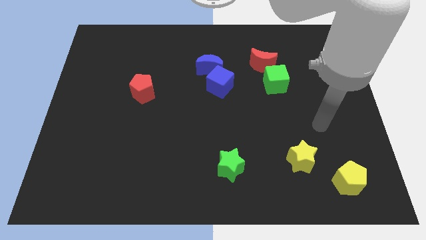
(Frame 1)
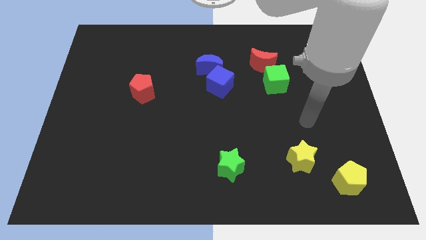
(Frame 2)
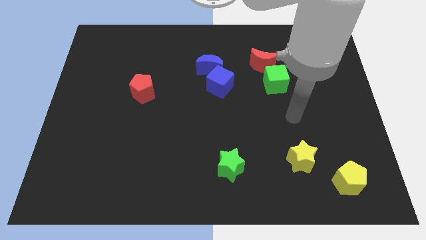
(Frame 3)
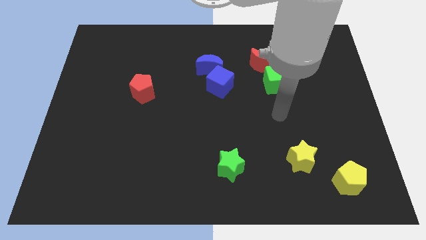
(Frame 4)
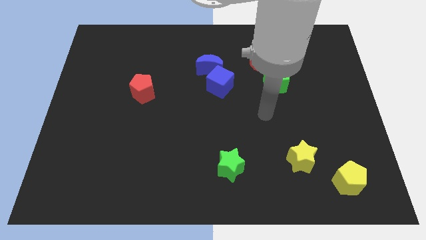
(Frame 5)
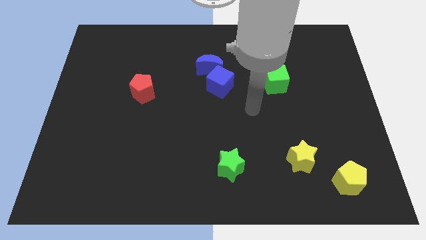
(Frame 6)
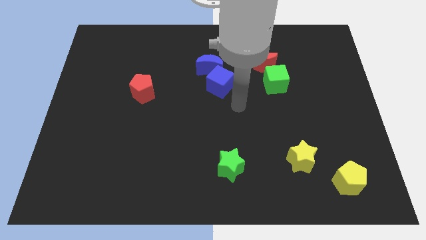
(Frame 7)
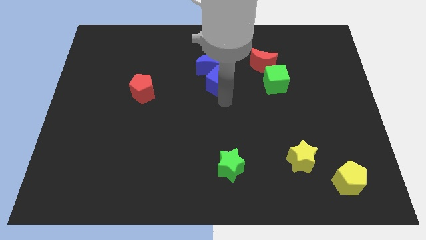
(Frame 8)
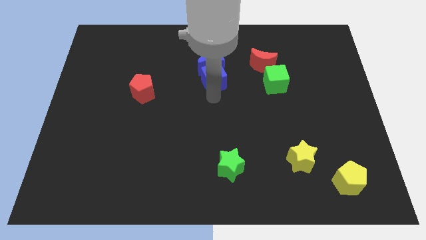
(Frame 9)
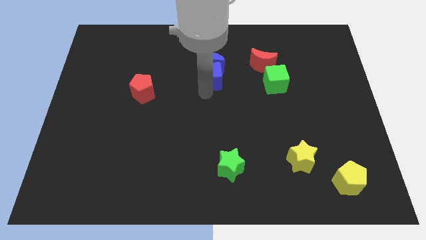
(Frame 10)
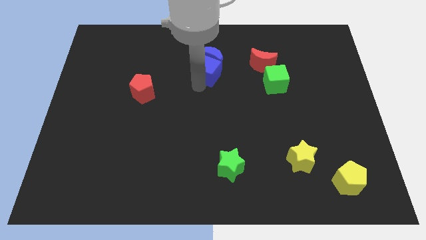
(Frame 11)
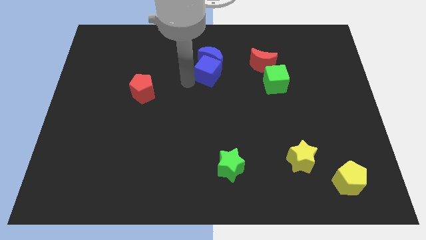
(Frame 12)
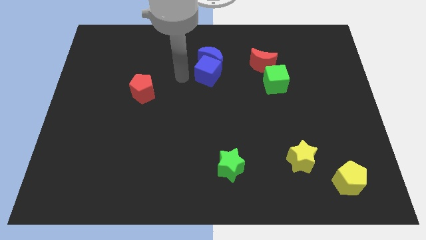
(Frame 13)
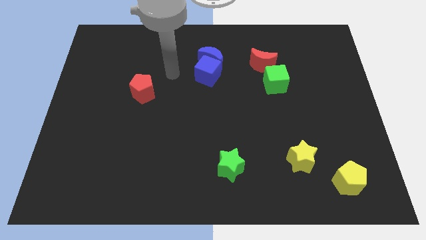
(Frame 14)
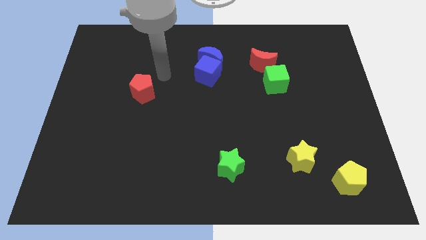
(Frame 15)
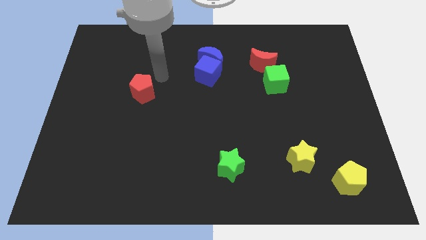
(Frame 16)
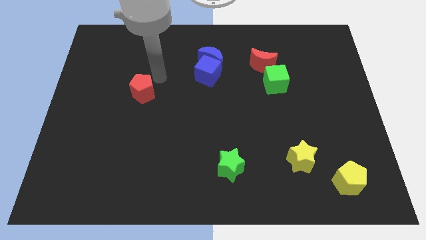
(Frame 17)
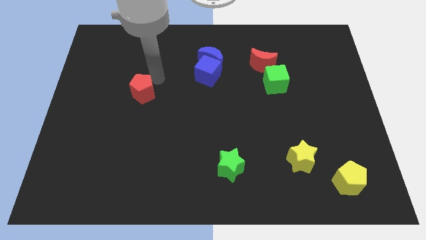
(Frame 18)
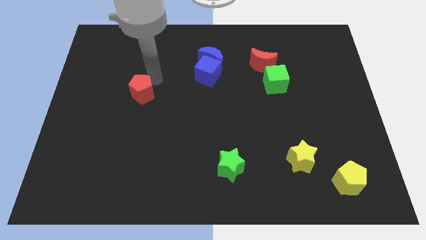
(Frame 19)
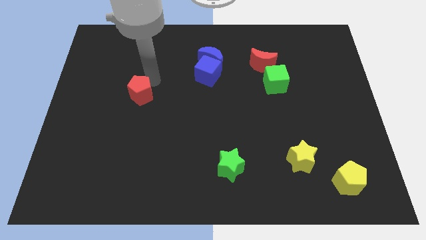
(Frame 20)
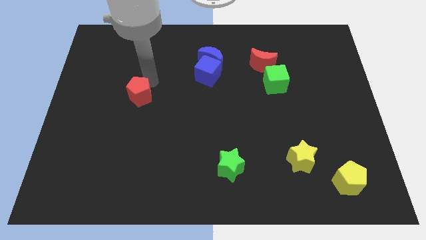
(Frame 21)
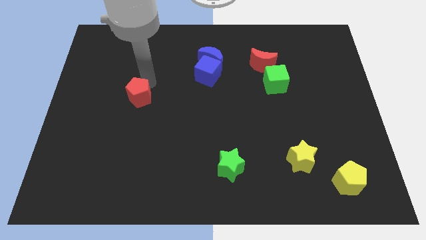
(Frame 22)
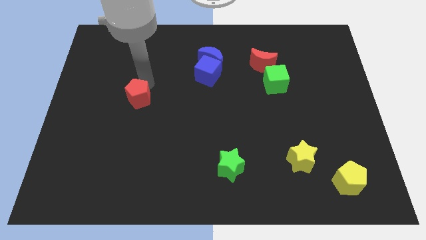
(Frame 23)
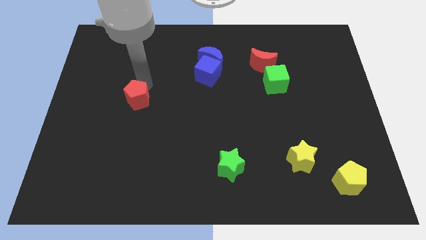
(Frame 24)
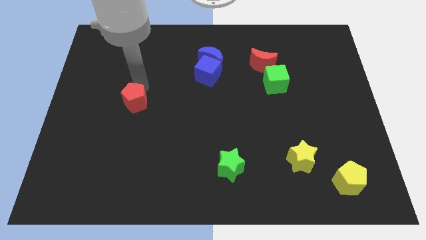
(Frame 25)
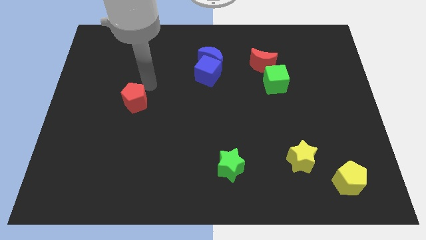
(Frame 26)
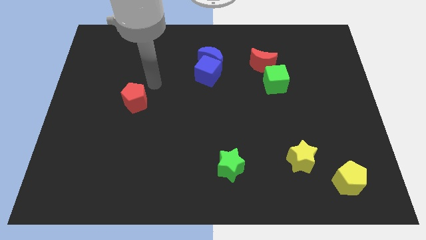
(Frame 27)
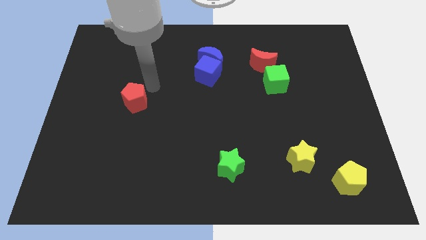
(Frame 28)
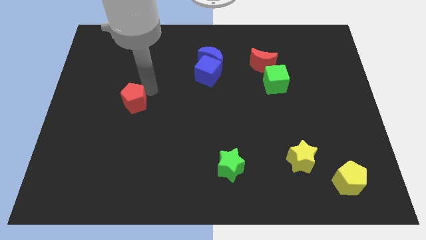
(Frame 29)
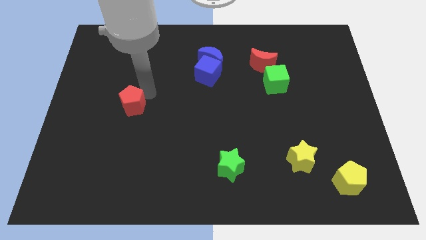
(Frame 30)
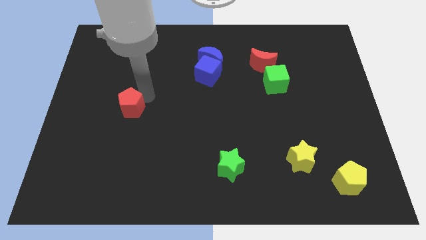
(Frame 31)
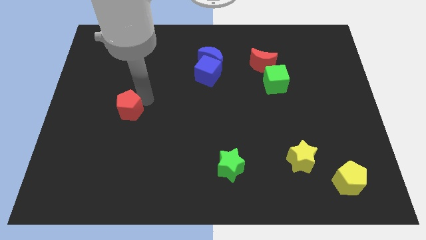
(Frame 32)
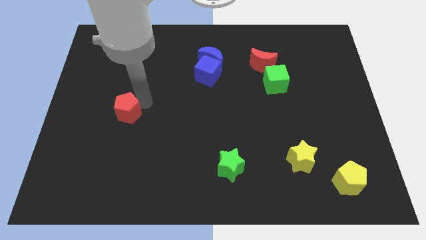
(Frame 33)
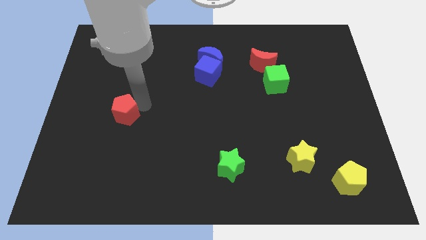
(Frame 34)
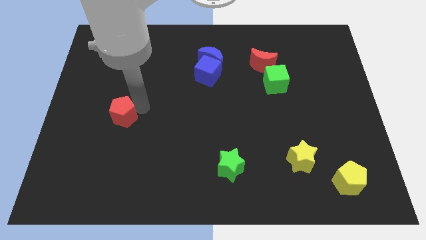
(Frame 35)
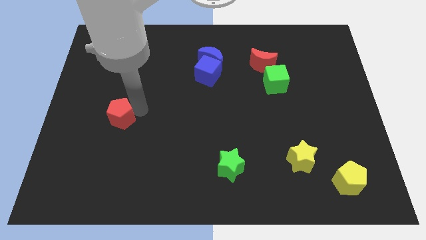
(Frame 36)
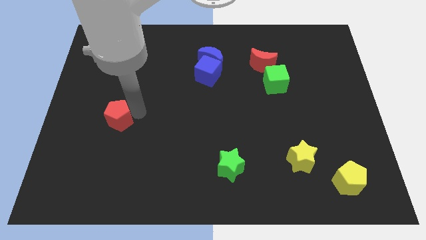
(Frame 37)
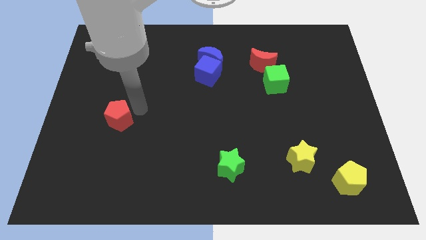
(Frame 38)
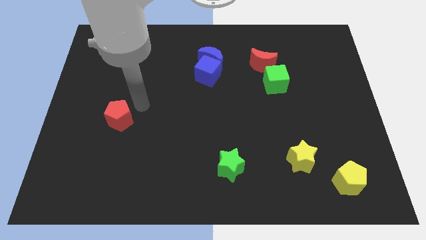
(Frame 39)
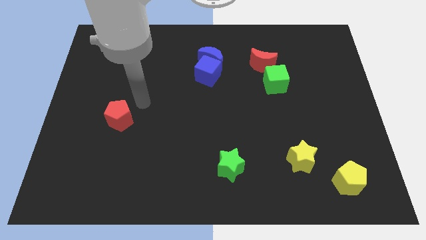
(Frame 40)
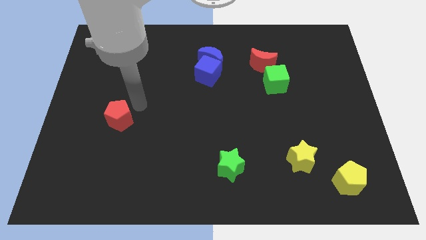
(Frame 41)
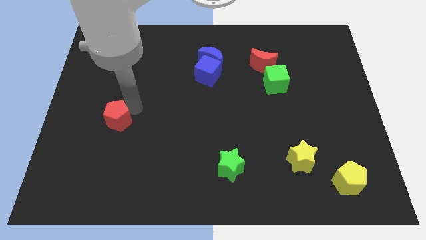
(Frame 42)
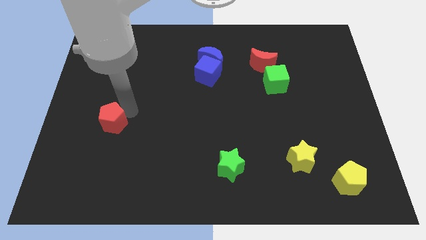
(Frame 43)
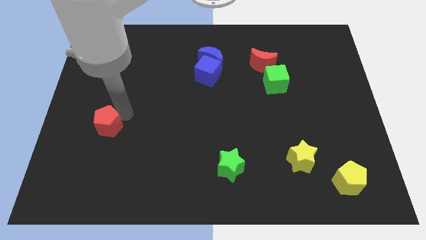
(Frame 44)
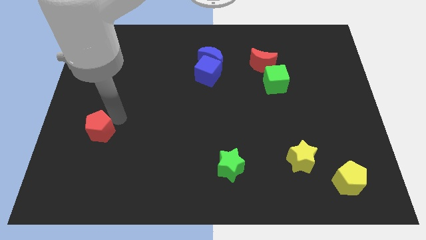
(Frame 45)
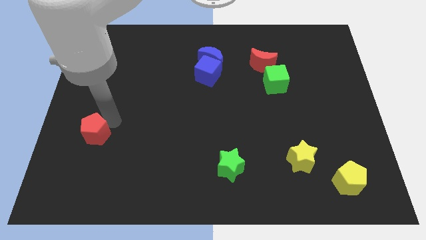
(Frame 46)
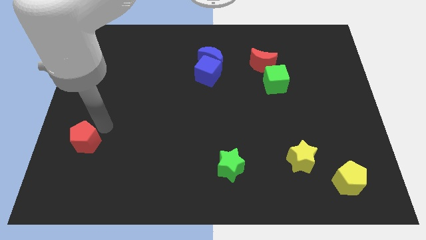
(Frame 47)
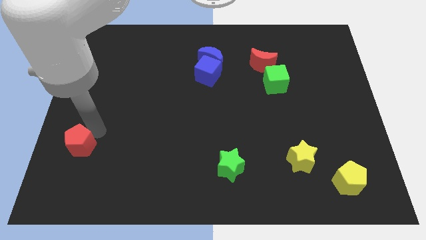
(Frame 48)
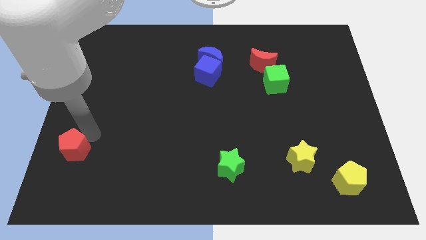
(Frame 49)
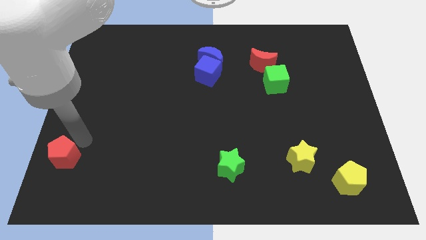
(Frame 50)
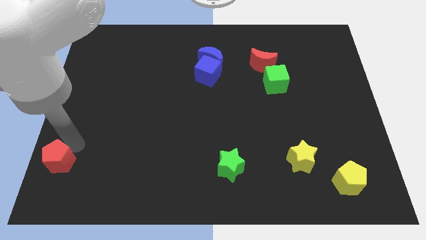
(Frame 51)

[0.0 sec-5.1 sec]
slide the red pentagon to the bottom left of the board

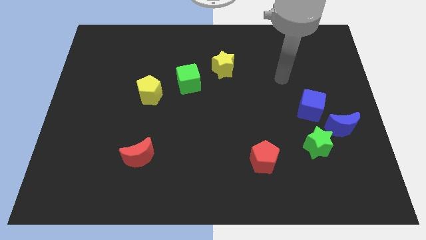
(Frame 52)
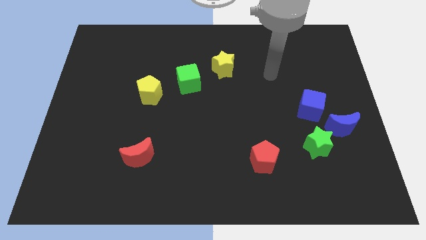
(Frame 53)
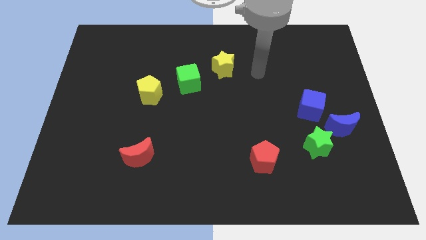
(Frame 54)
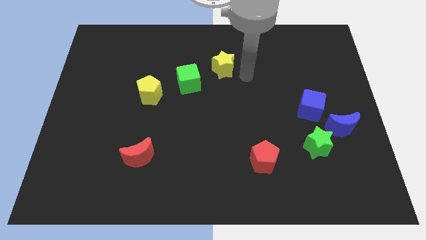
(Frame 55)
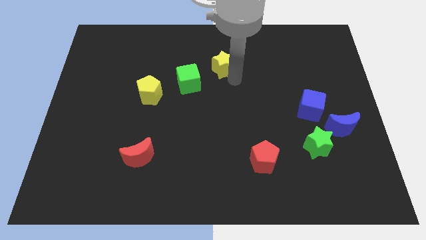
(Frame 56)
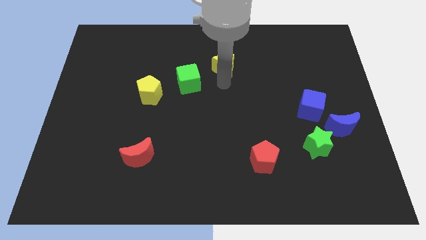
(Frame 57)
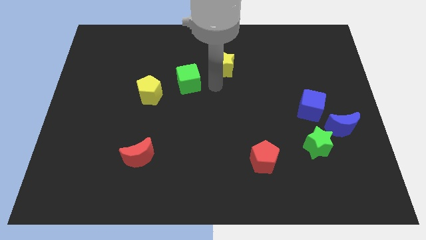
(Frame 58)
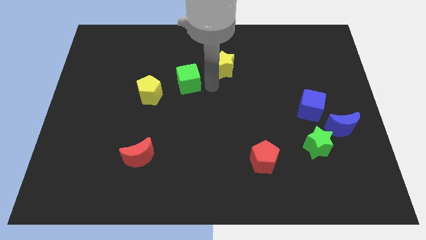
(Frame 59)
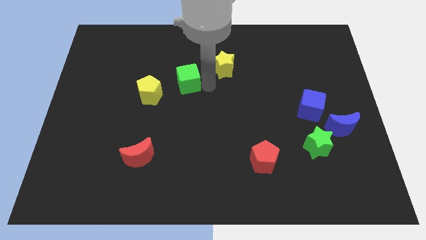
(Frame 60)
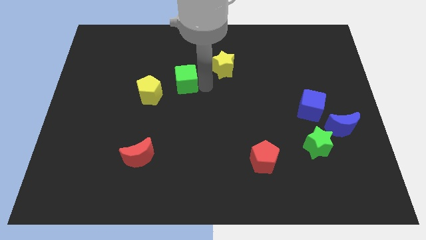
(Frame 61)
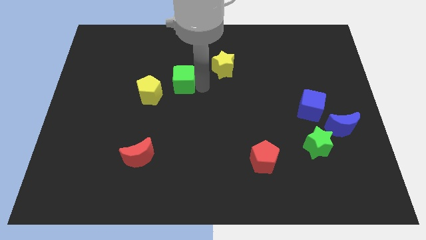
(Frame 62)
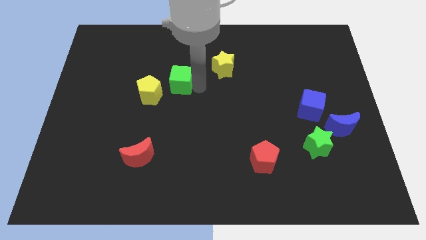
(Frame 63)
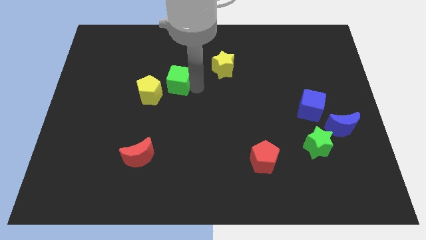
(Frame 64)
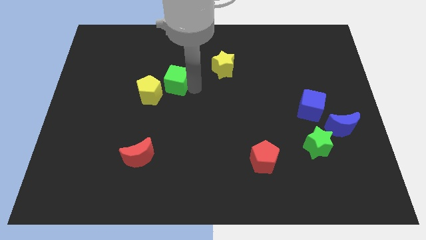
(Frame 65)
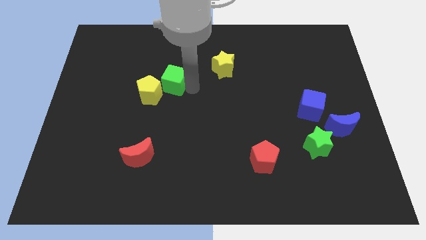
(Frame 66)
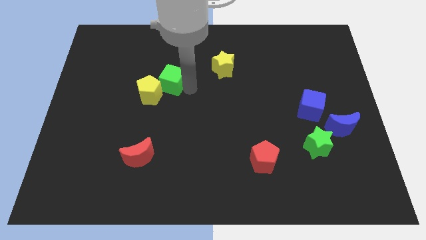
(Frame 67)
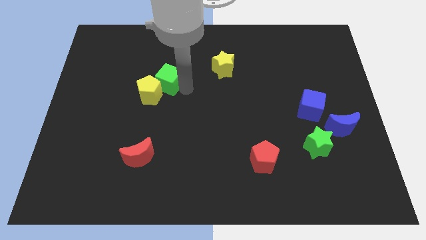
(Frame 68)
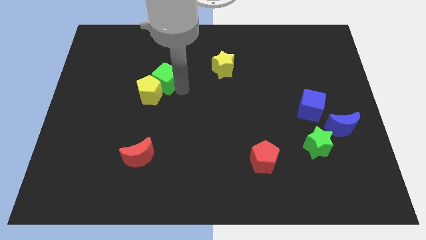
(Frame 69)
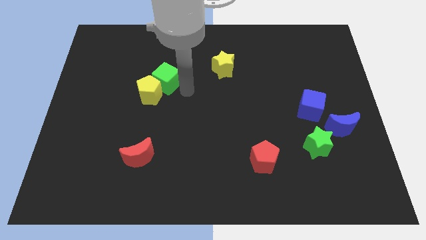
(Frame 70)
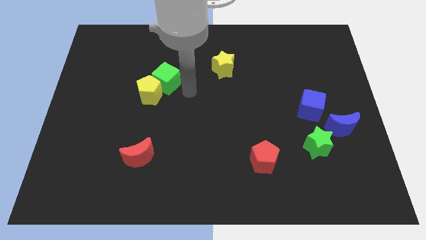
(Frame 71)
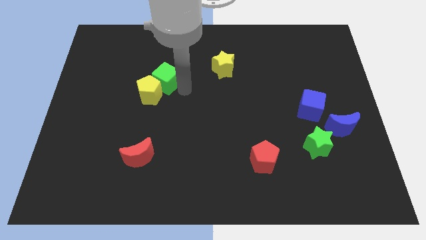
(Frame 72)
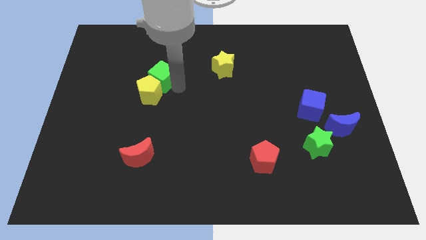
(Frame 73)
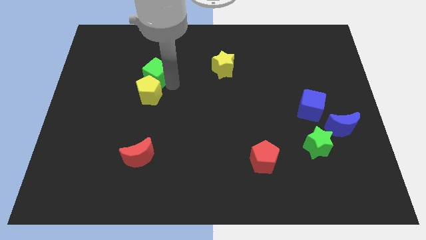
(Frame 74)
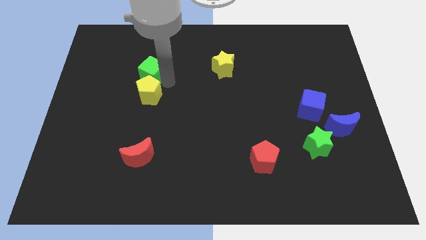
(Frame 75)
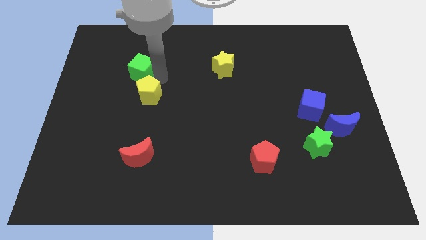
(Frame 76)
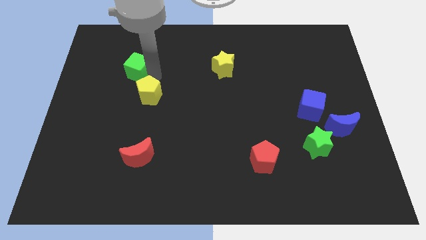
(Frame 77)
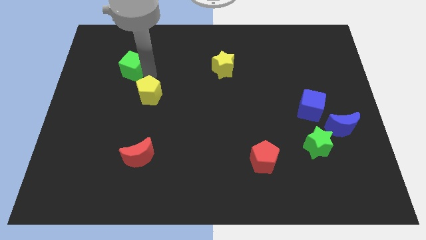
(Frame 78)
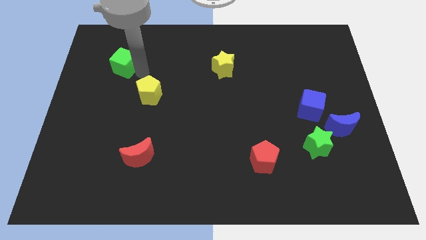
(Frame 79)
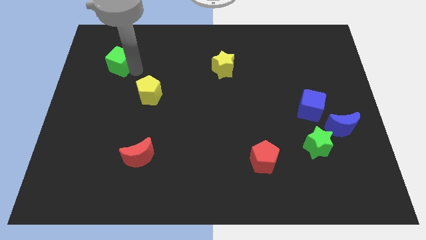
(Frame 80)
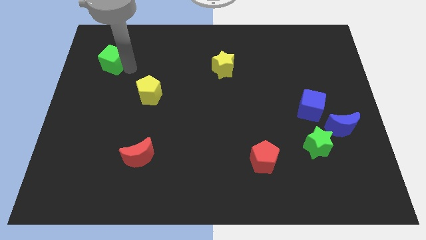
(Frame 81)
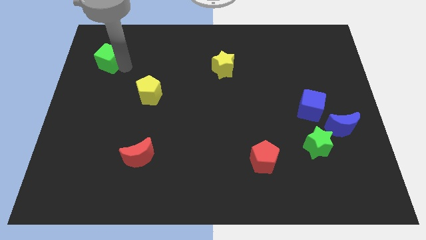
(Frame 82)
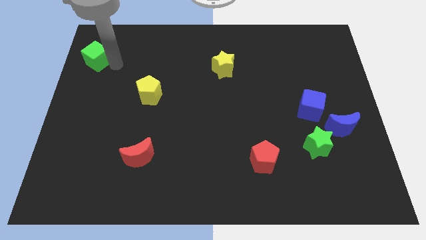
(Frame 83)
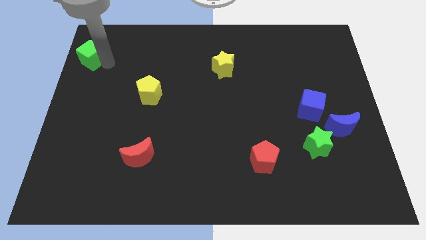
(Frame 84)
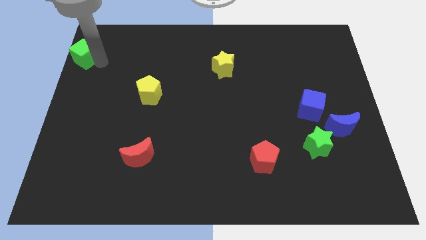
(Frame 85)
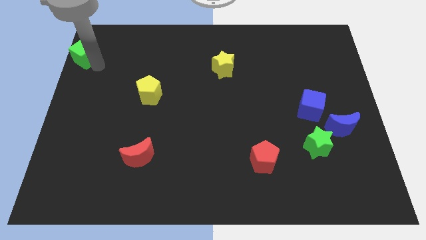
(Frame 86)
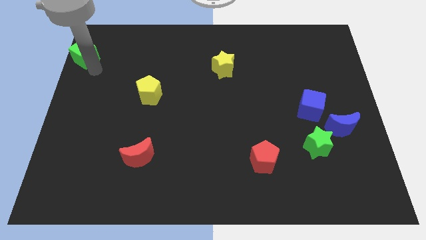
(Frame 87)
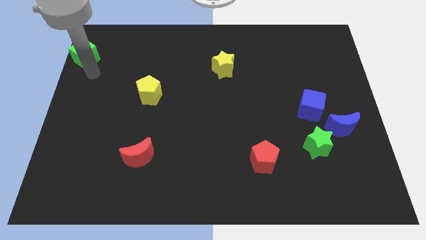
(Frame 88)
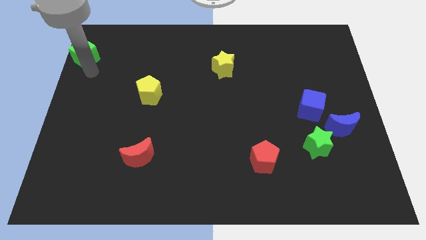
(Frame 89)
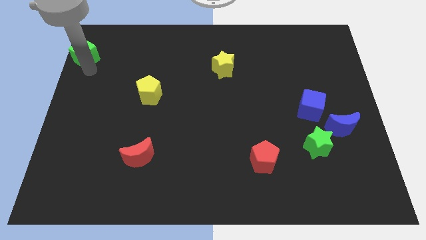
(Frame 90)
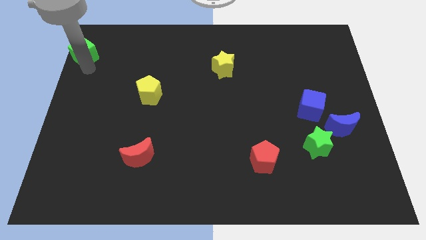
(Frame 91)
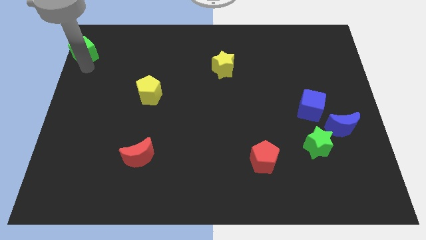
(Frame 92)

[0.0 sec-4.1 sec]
move the green cube to the upper left corner
